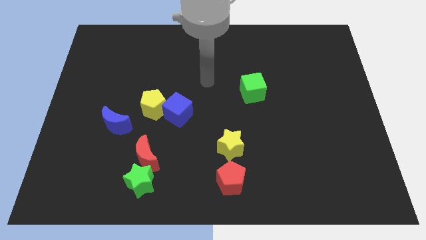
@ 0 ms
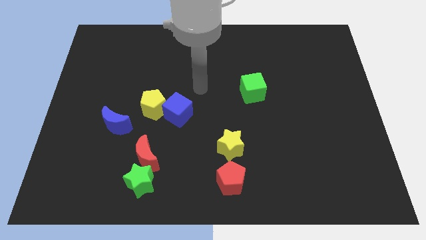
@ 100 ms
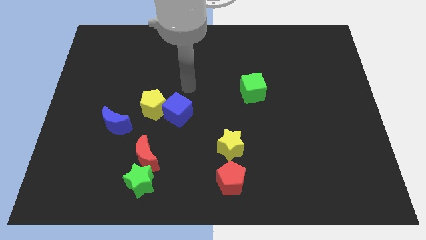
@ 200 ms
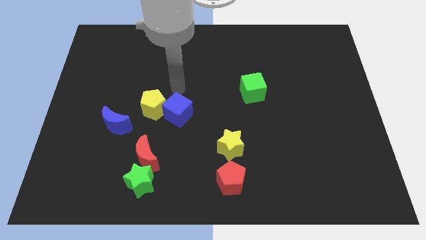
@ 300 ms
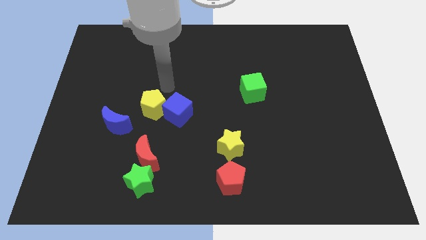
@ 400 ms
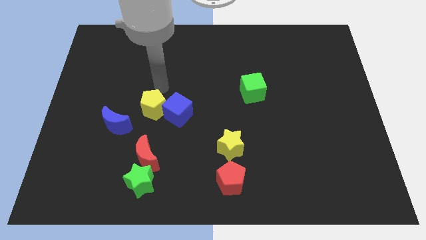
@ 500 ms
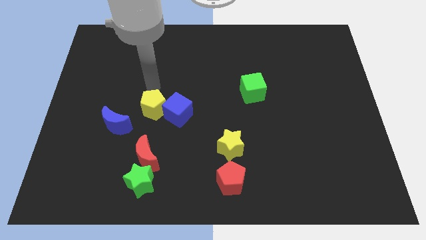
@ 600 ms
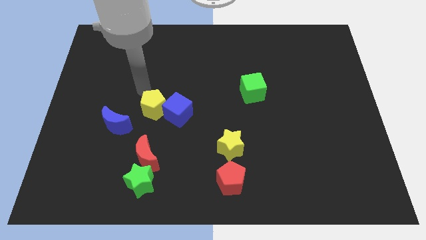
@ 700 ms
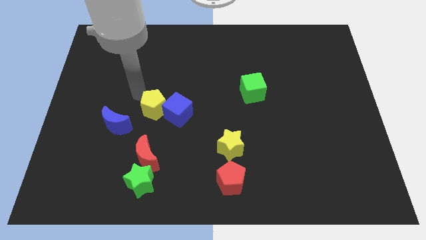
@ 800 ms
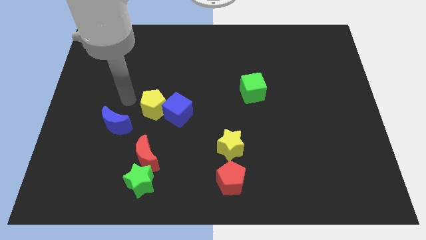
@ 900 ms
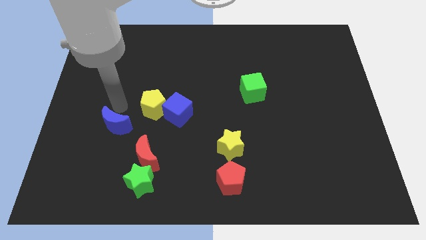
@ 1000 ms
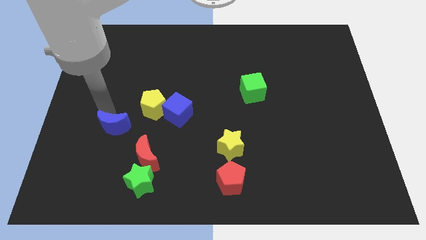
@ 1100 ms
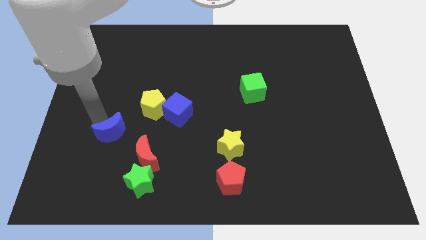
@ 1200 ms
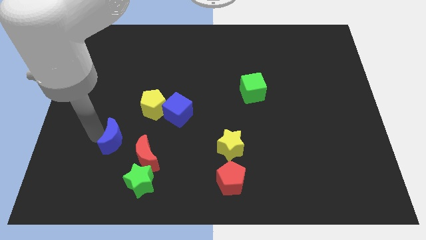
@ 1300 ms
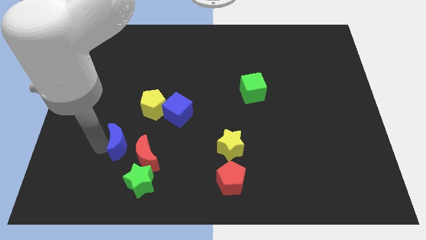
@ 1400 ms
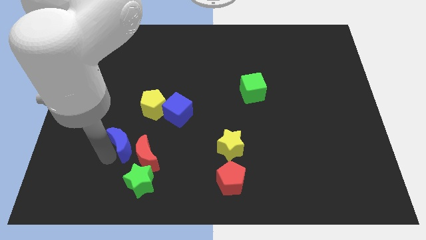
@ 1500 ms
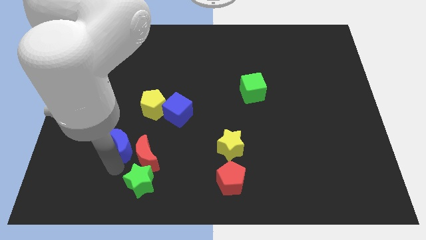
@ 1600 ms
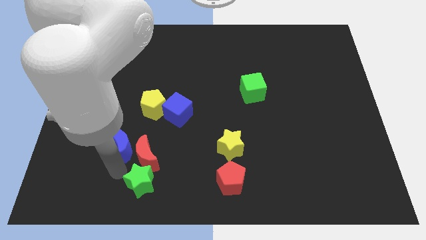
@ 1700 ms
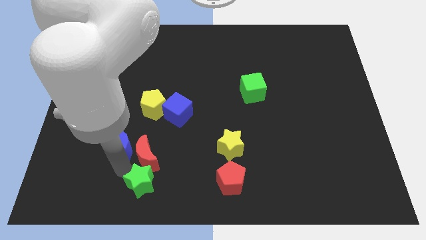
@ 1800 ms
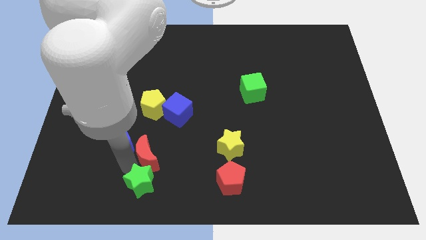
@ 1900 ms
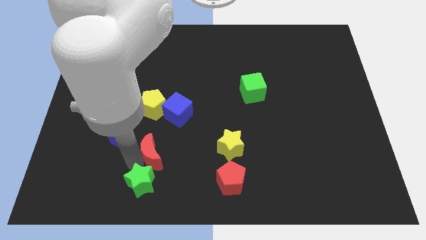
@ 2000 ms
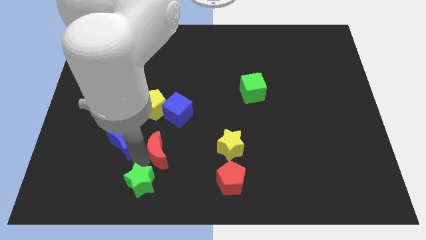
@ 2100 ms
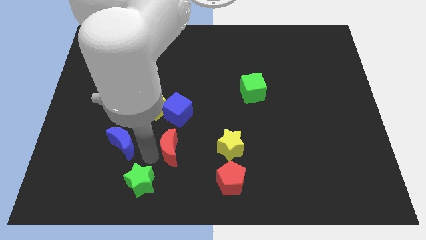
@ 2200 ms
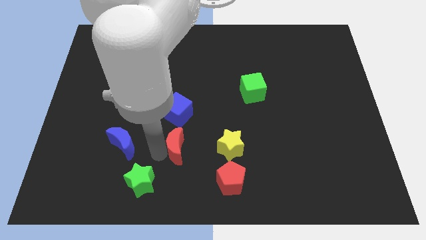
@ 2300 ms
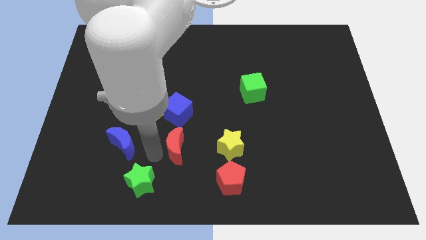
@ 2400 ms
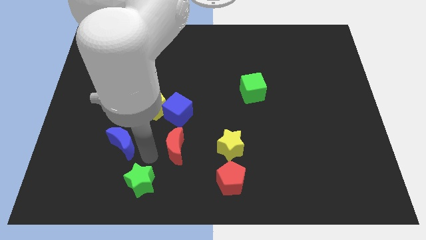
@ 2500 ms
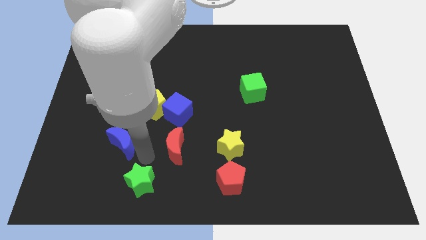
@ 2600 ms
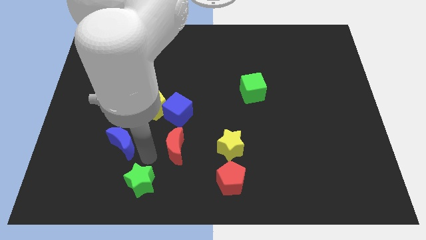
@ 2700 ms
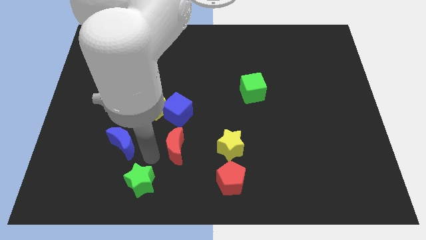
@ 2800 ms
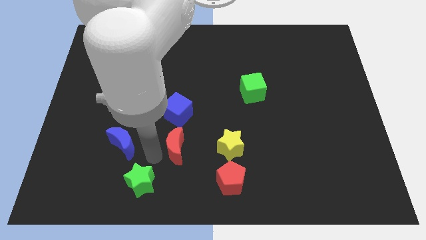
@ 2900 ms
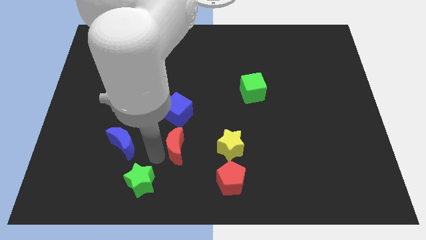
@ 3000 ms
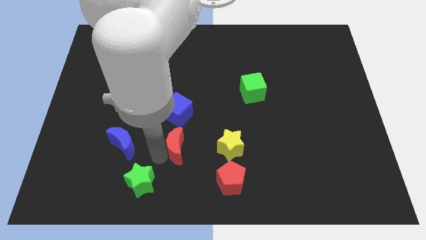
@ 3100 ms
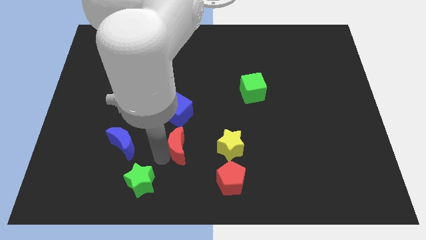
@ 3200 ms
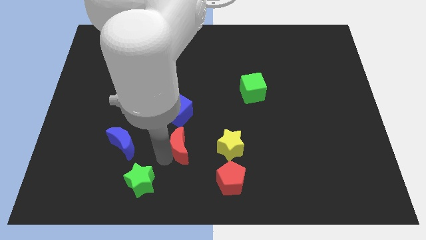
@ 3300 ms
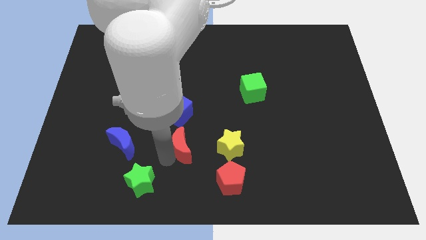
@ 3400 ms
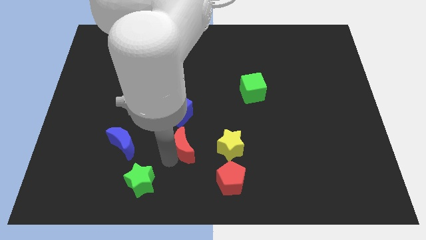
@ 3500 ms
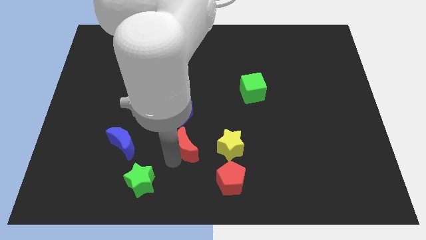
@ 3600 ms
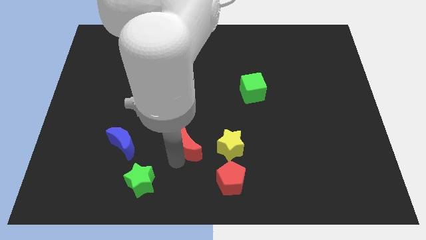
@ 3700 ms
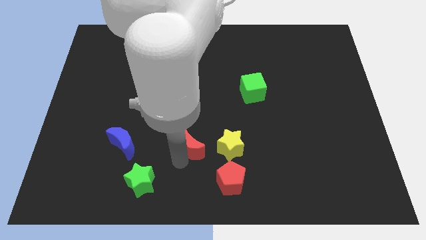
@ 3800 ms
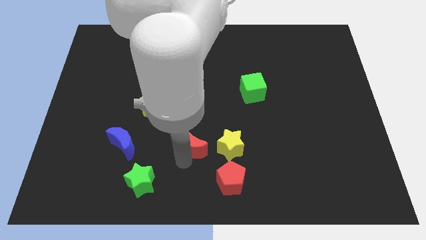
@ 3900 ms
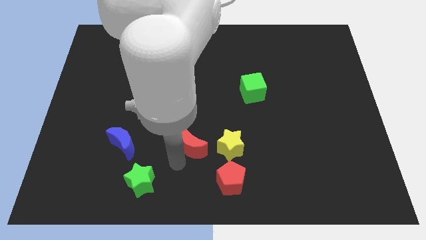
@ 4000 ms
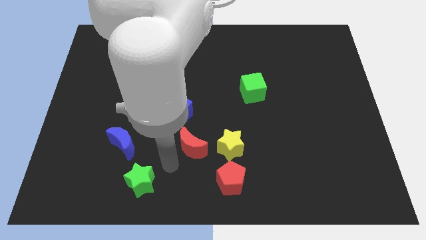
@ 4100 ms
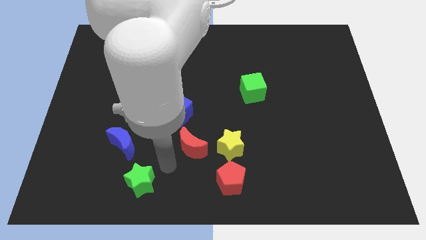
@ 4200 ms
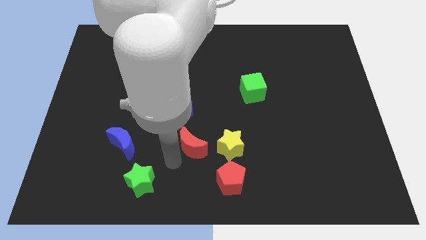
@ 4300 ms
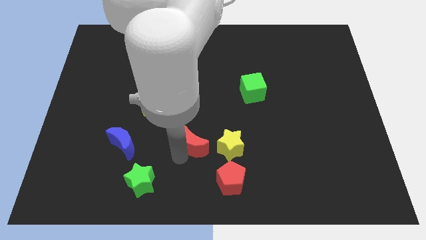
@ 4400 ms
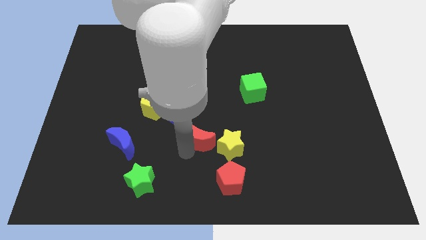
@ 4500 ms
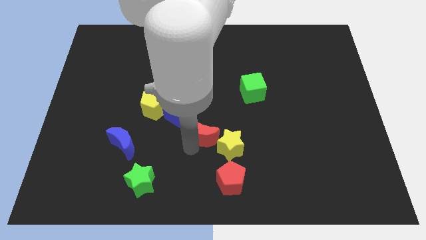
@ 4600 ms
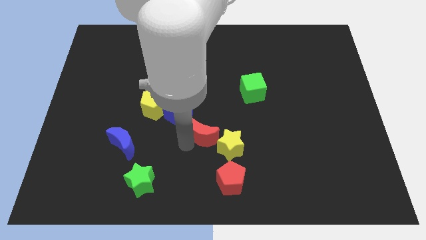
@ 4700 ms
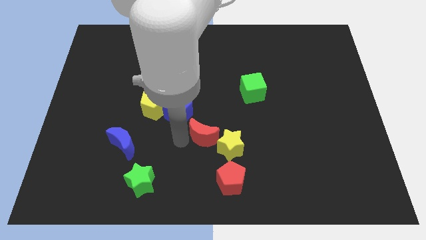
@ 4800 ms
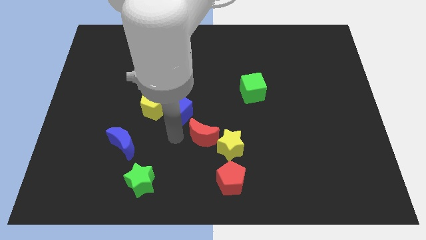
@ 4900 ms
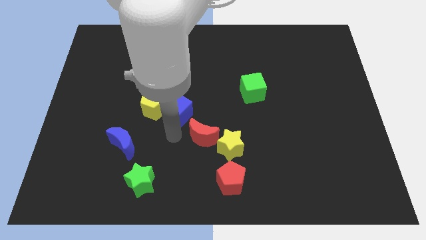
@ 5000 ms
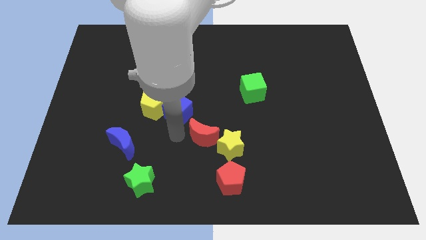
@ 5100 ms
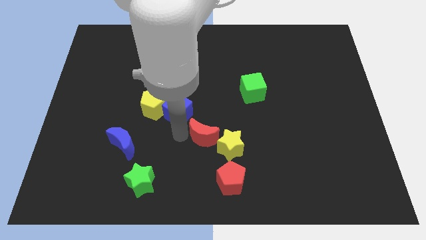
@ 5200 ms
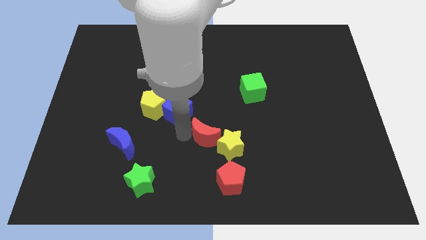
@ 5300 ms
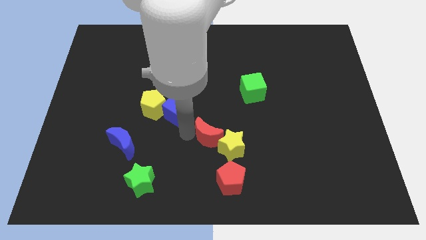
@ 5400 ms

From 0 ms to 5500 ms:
put the red moon to the top of the red pentagon
